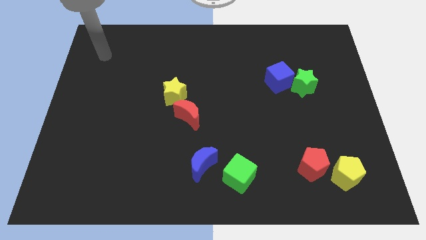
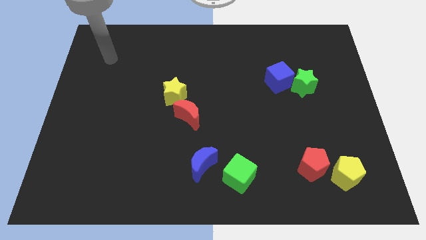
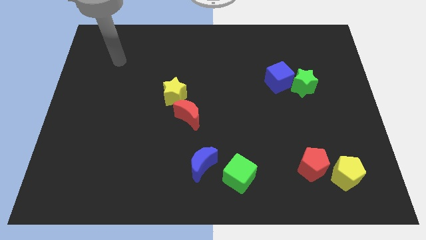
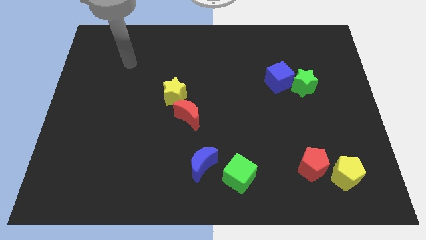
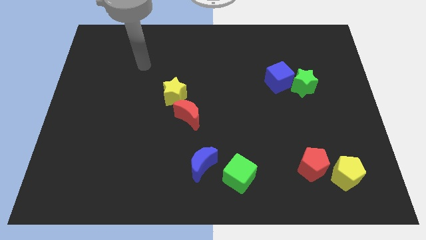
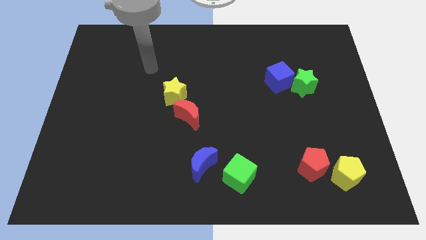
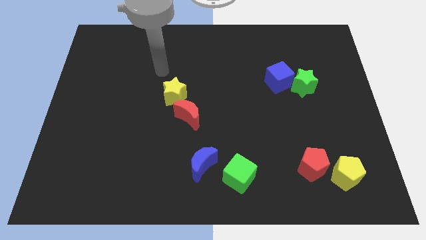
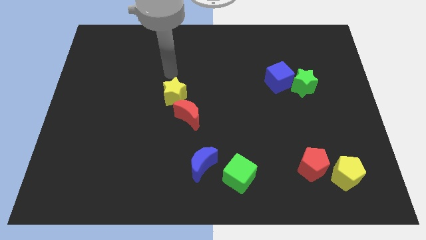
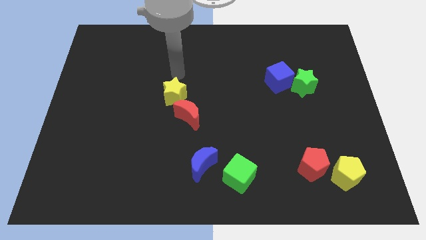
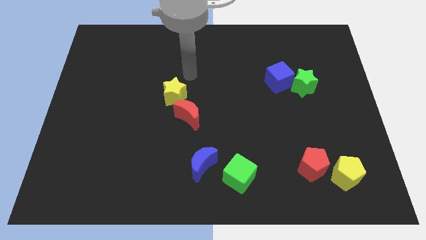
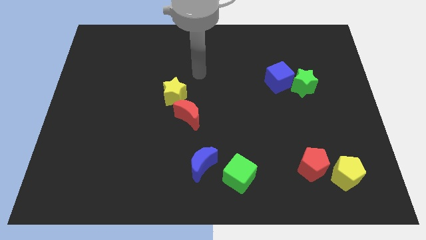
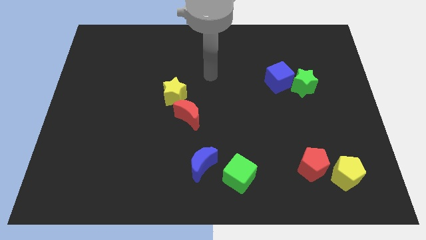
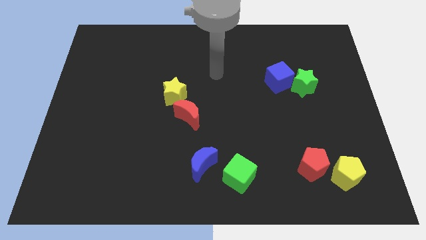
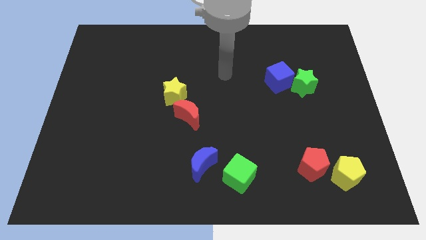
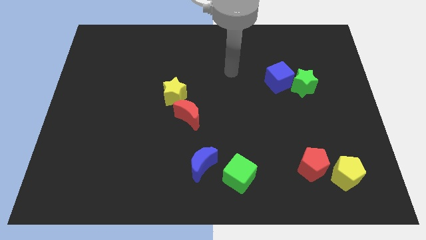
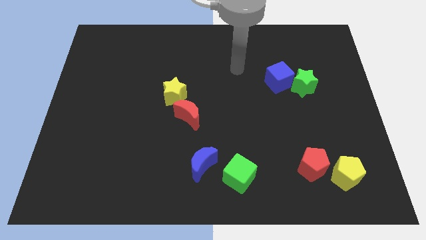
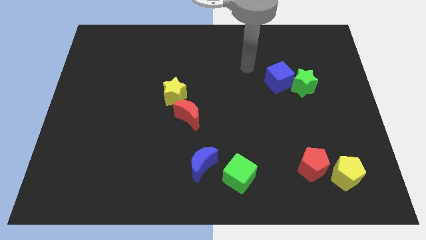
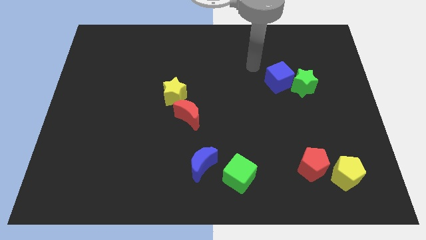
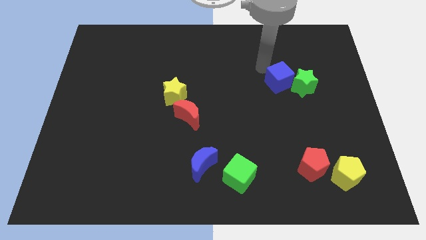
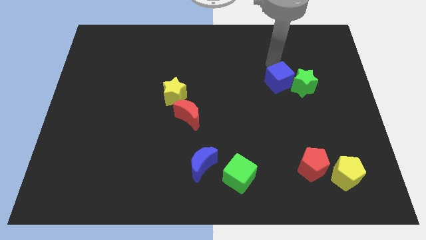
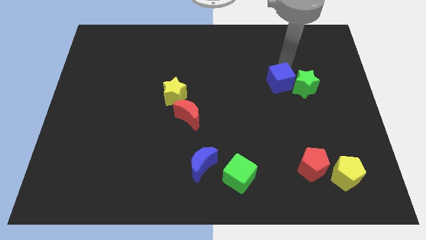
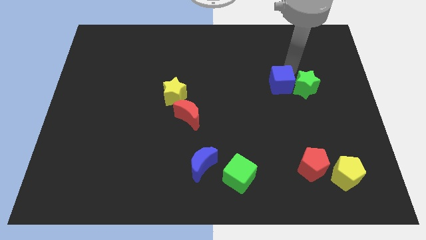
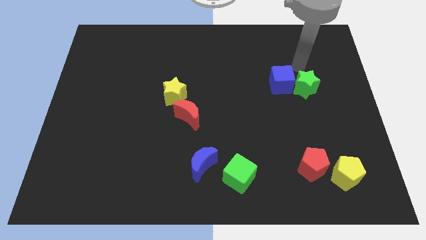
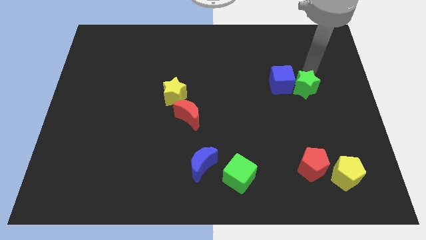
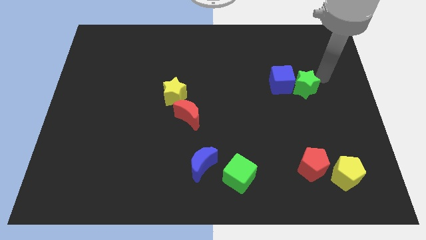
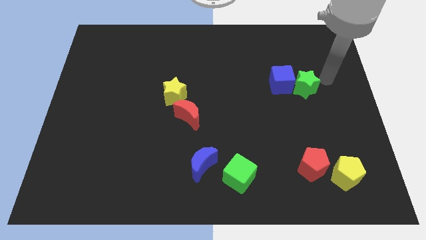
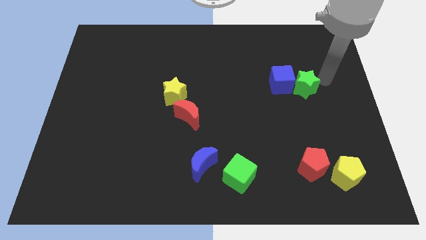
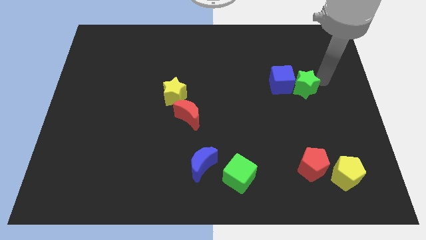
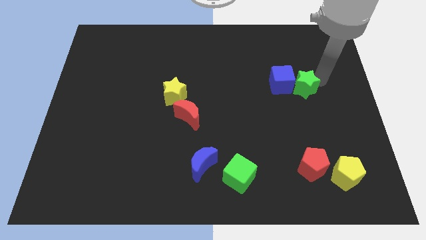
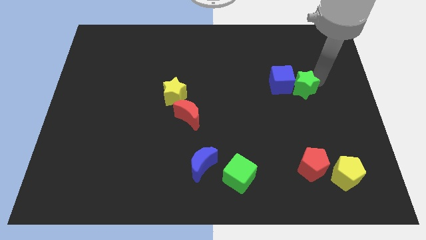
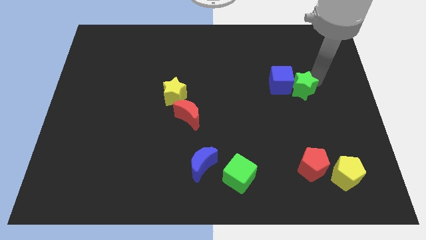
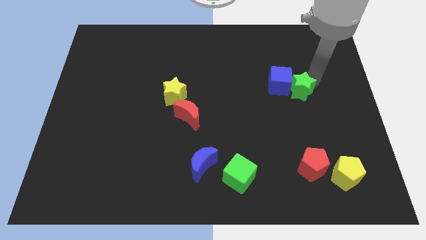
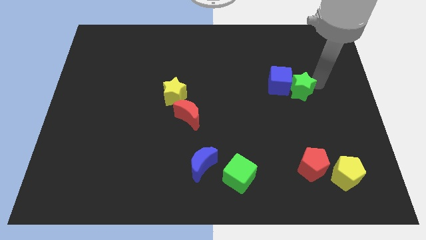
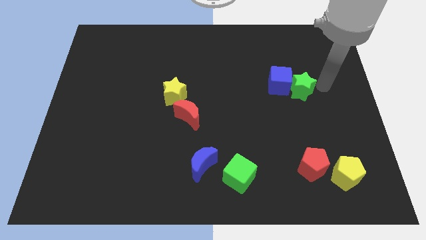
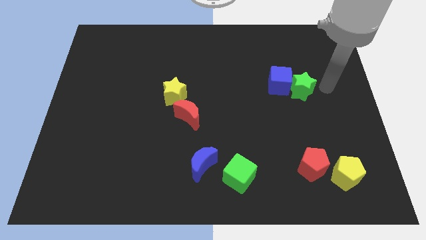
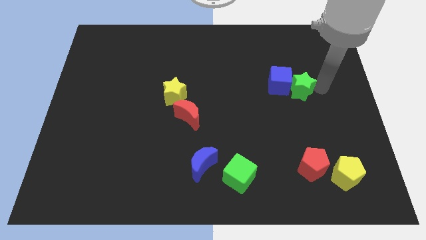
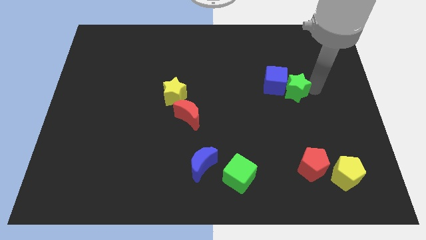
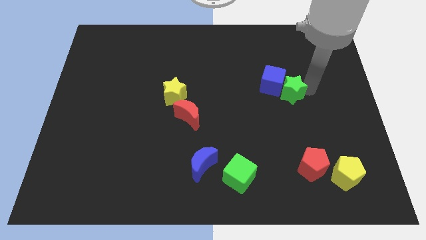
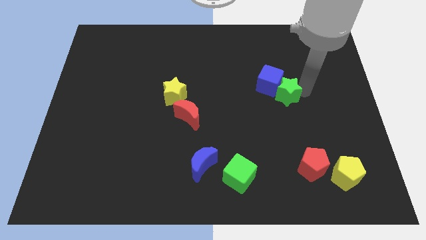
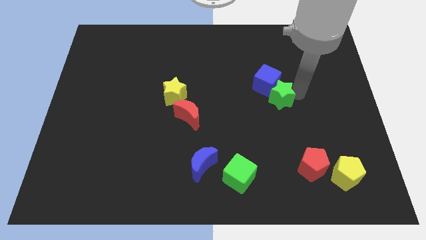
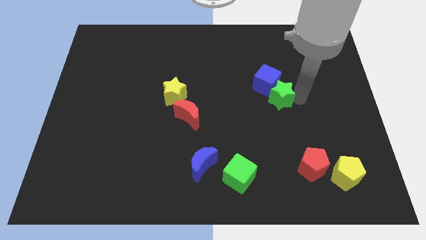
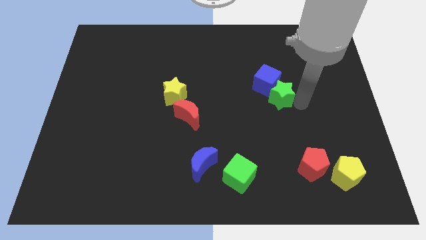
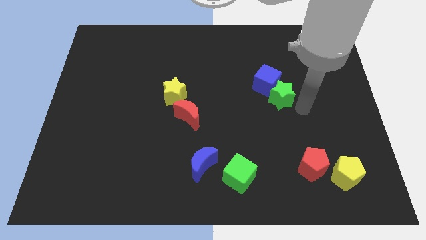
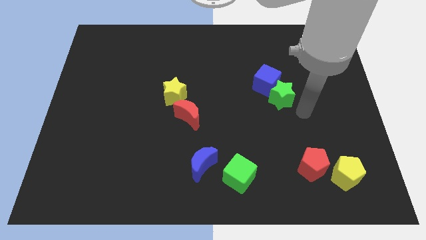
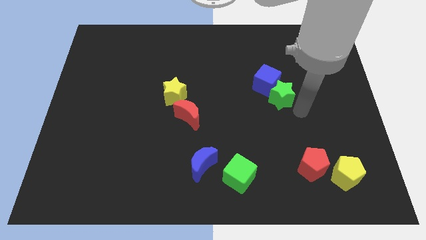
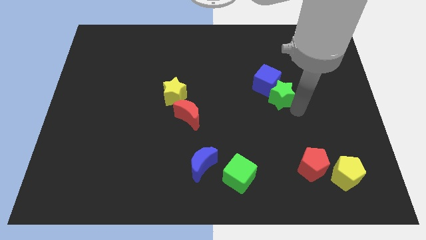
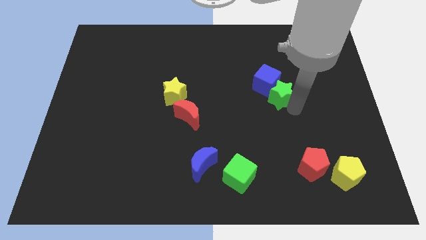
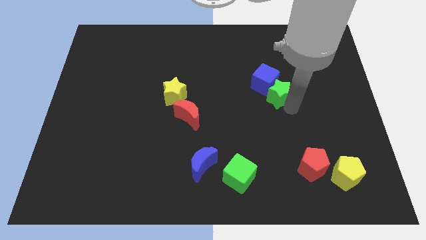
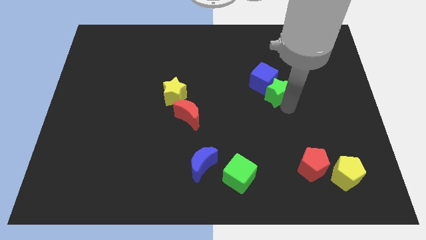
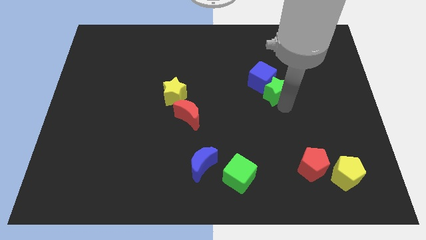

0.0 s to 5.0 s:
slightly slide the green star to the left

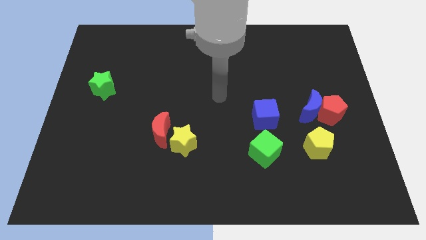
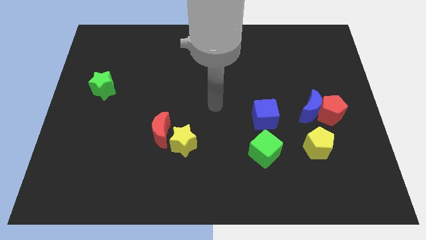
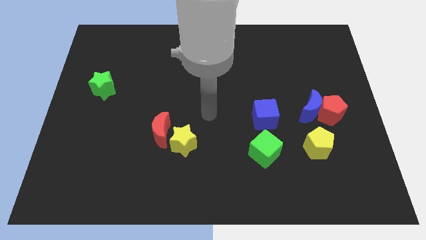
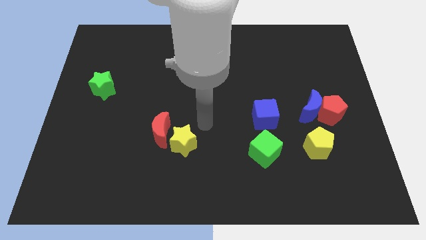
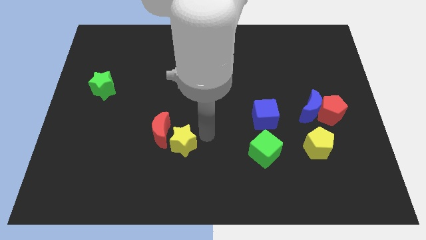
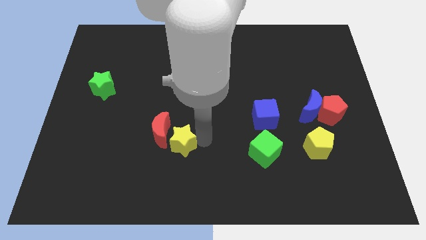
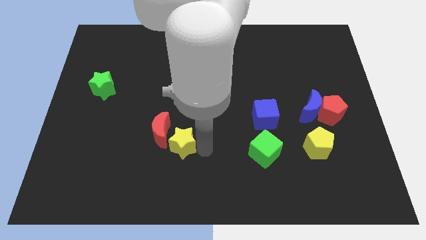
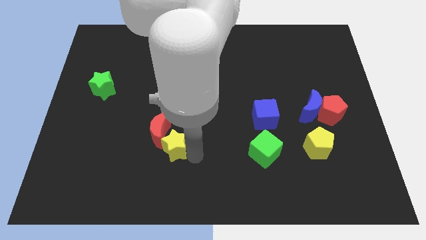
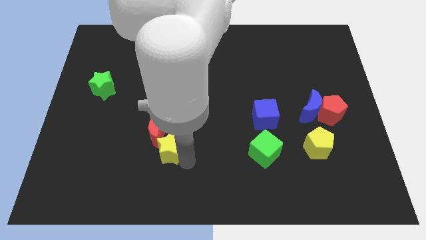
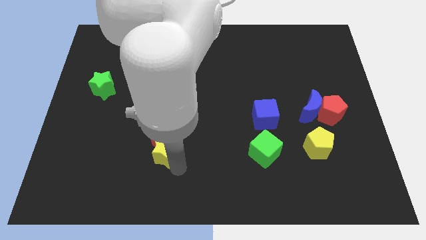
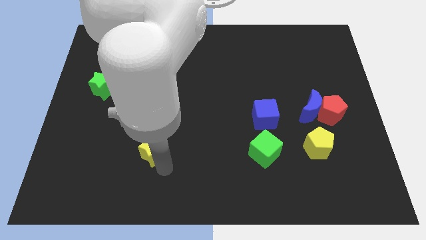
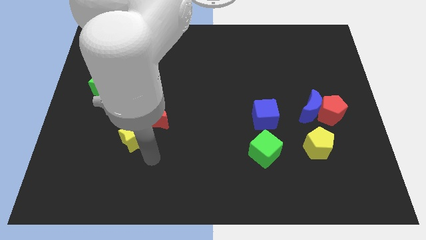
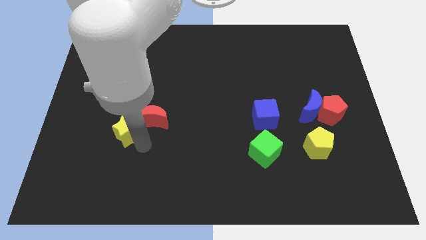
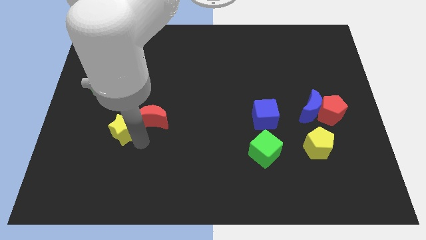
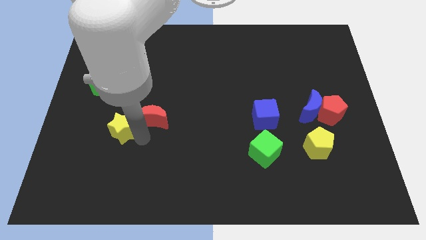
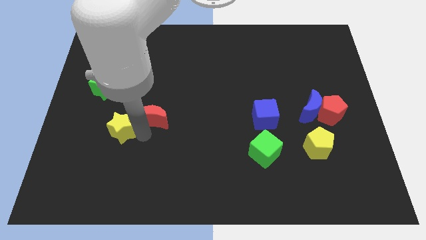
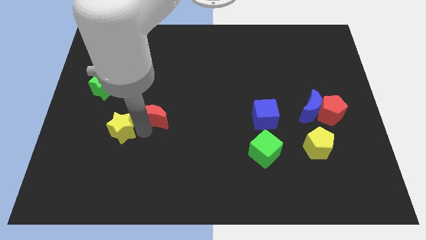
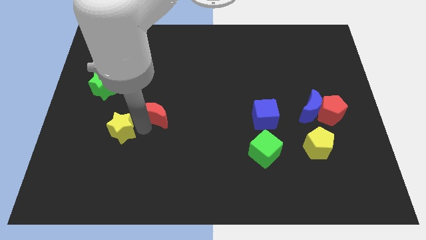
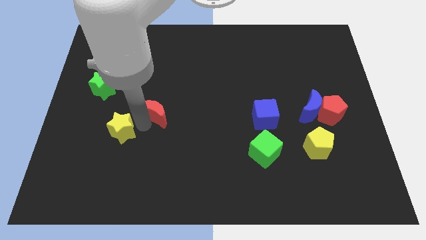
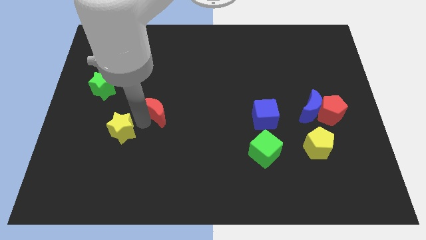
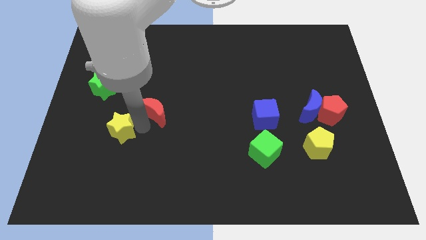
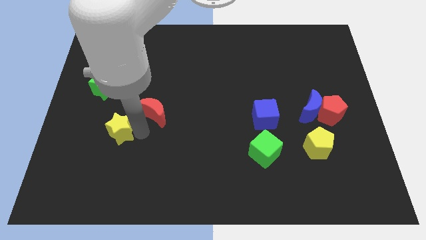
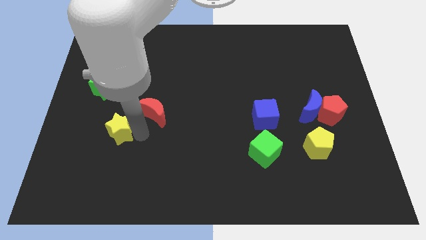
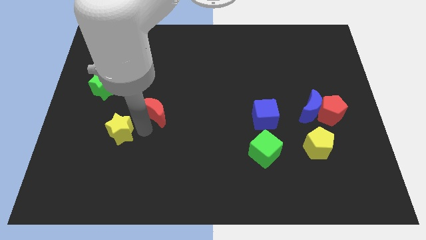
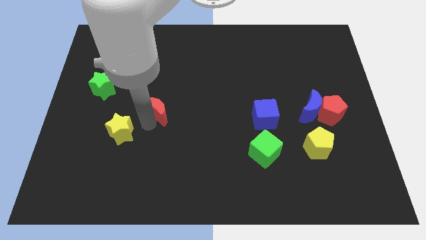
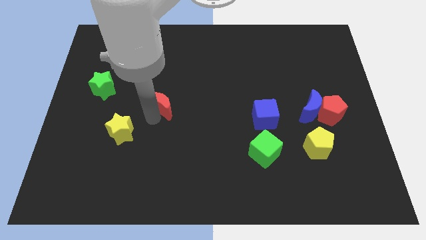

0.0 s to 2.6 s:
slightly move the red moon upwards

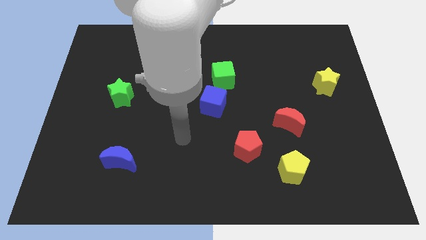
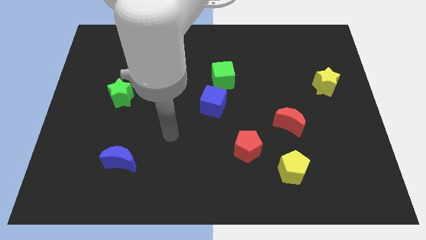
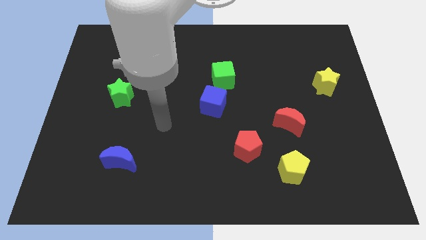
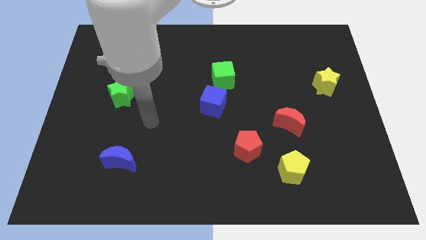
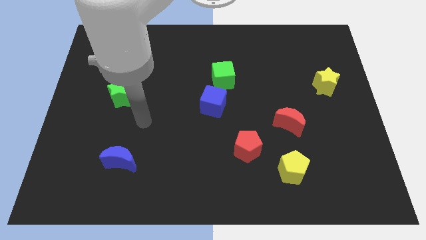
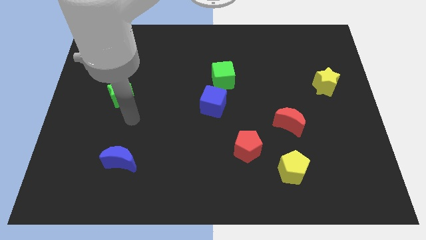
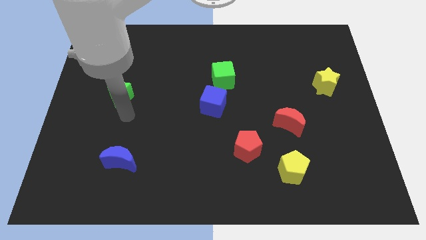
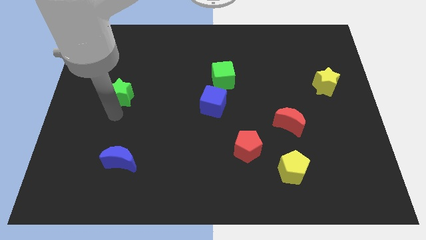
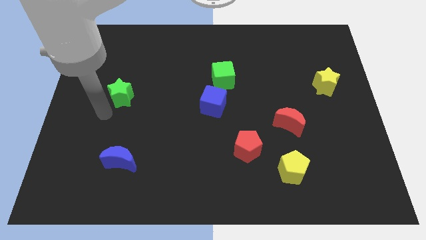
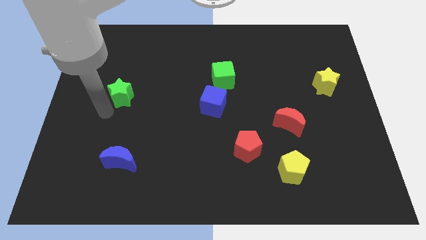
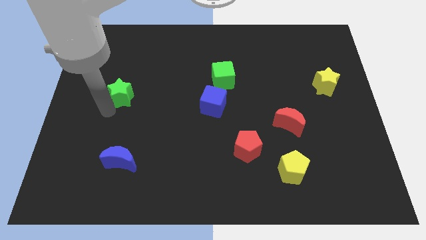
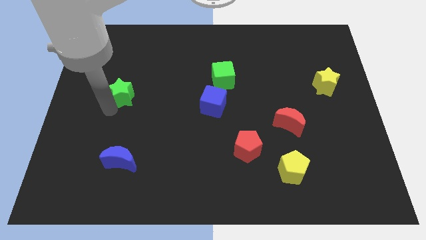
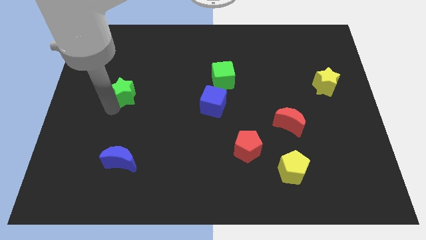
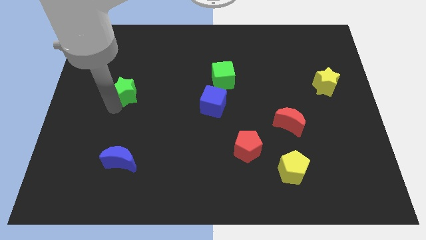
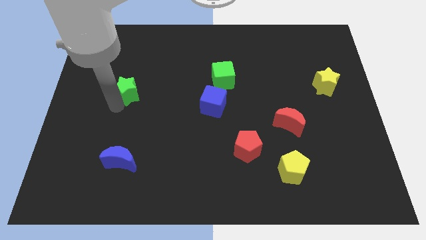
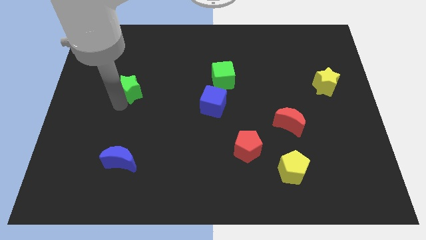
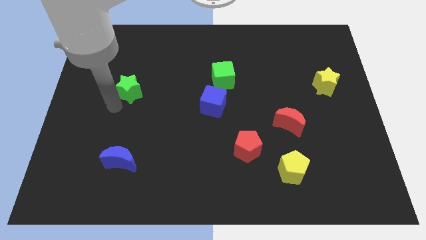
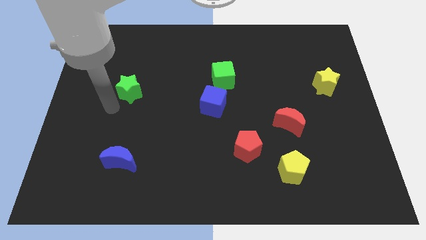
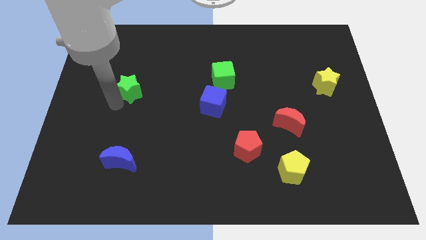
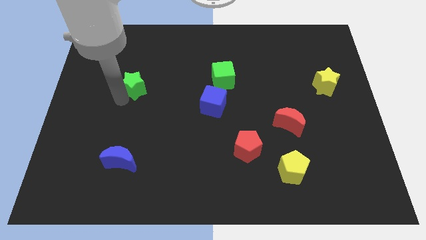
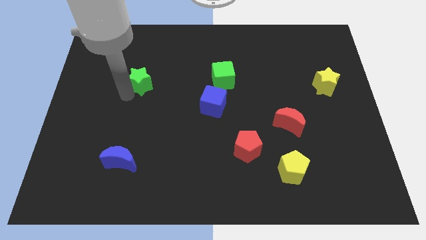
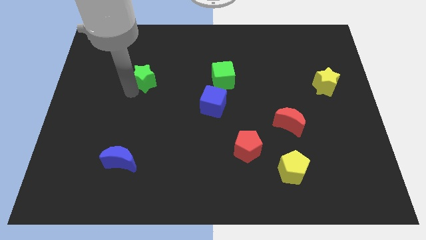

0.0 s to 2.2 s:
push the green star diagonally upwards and to the right a bit
